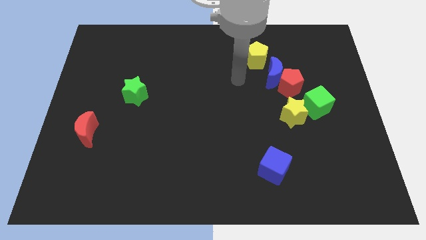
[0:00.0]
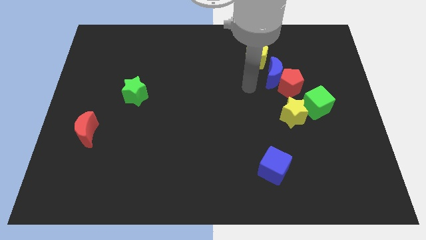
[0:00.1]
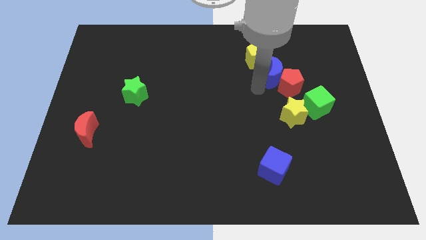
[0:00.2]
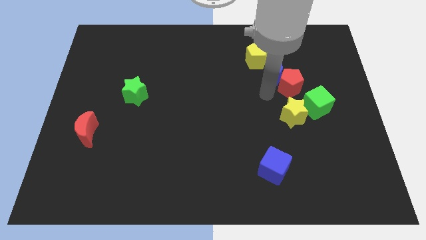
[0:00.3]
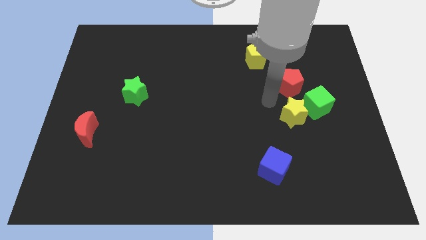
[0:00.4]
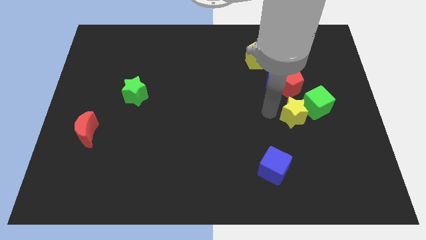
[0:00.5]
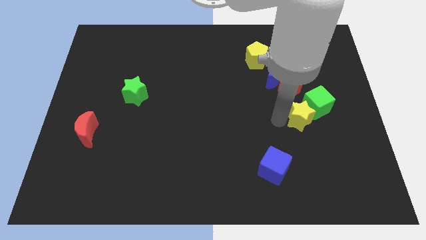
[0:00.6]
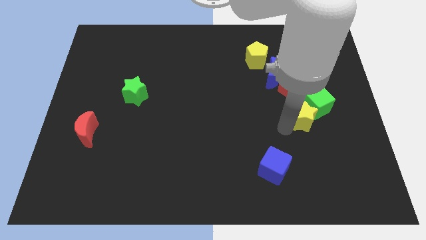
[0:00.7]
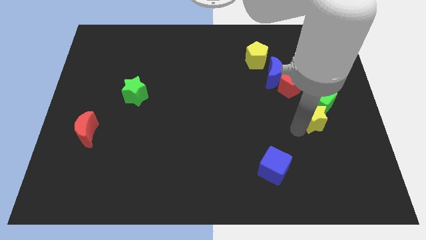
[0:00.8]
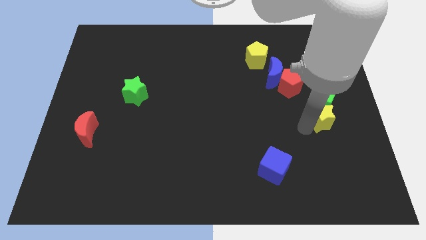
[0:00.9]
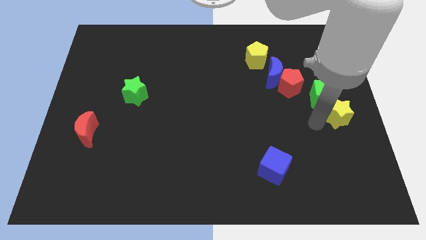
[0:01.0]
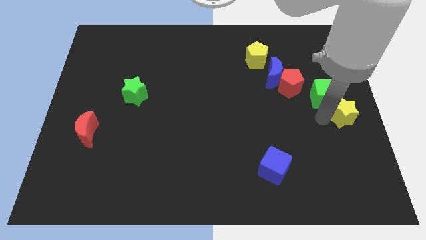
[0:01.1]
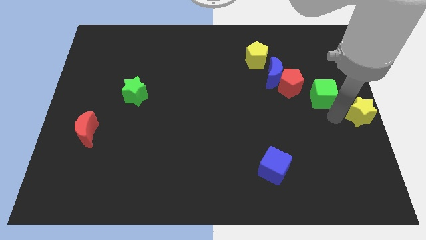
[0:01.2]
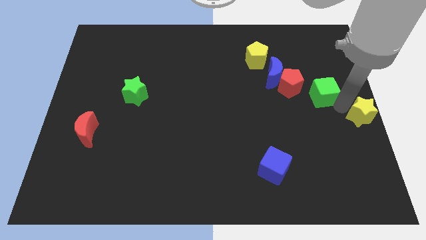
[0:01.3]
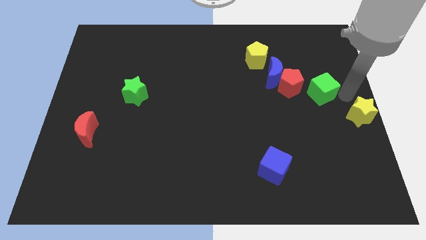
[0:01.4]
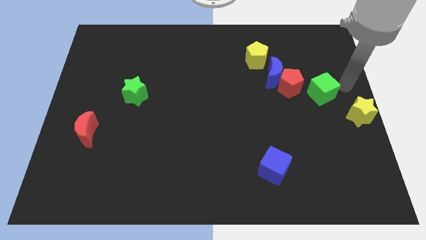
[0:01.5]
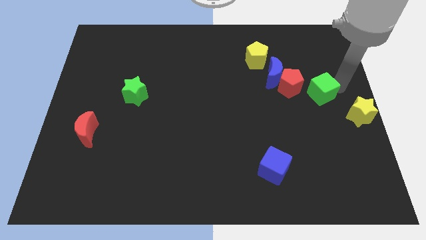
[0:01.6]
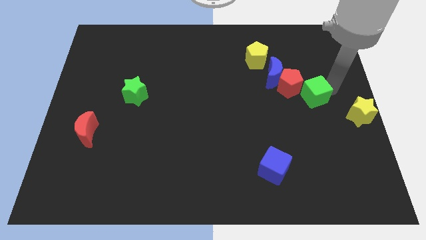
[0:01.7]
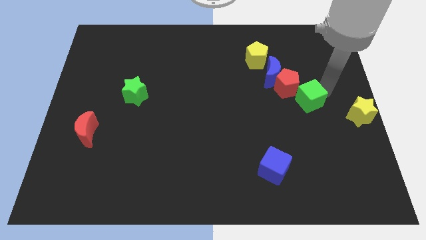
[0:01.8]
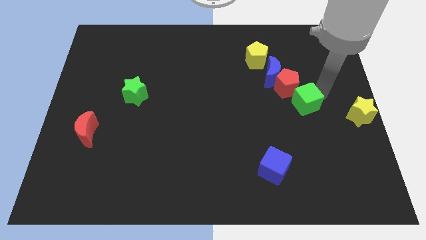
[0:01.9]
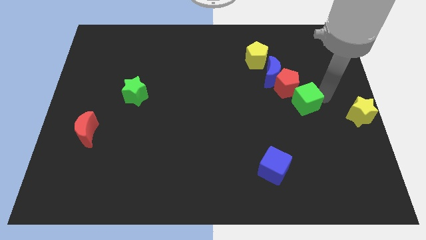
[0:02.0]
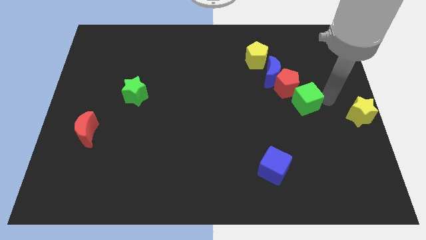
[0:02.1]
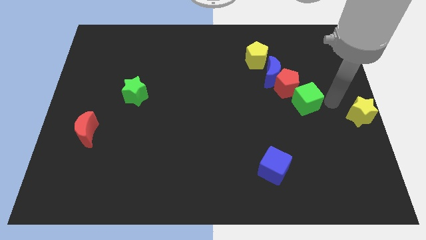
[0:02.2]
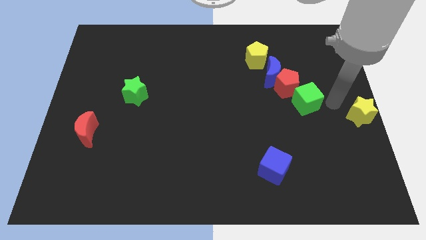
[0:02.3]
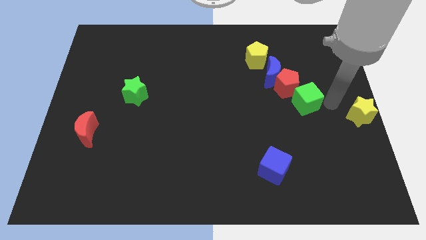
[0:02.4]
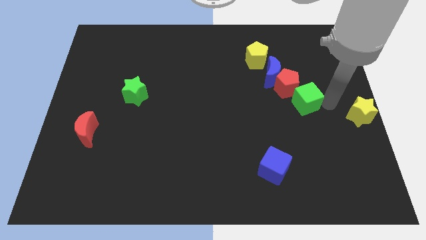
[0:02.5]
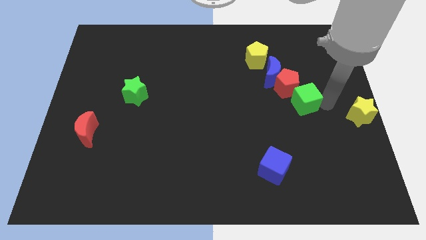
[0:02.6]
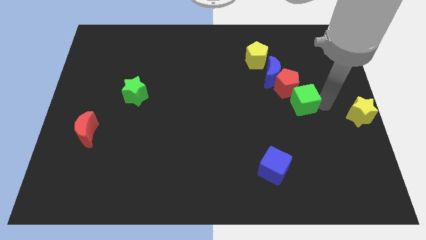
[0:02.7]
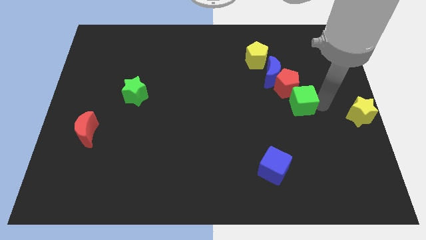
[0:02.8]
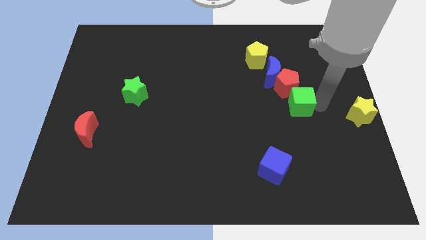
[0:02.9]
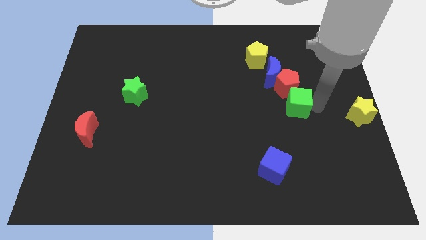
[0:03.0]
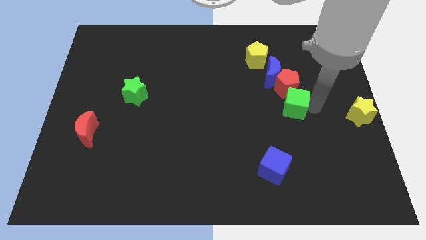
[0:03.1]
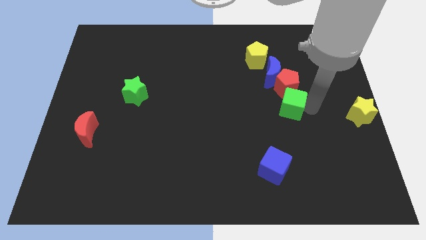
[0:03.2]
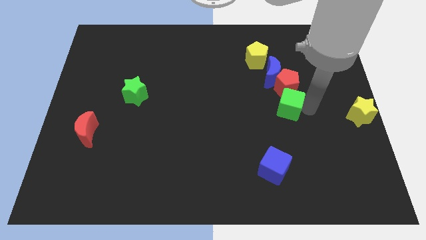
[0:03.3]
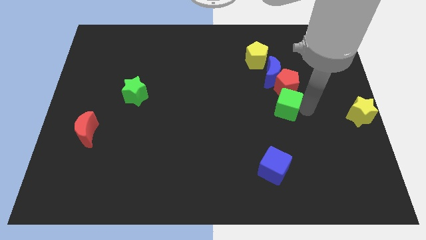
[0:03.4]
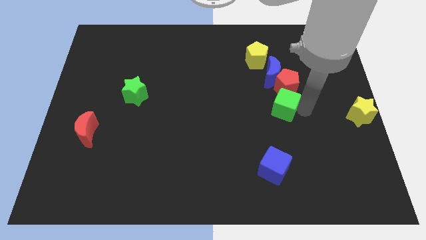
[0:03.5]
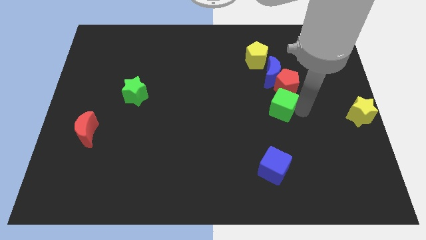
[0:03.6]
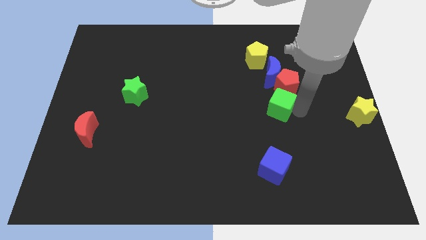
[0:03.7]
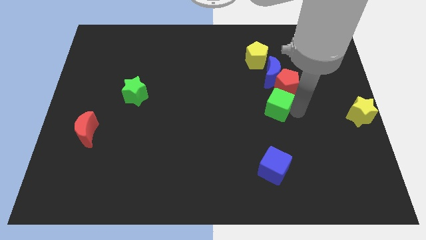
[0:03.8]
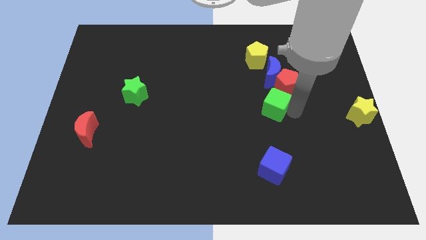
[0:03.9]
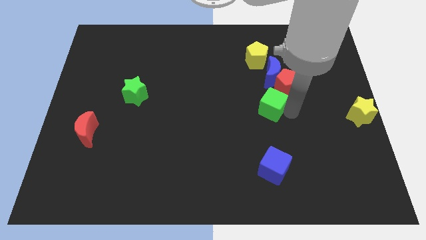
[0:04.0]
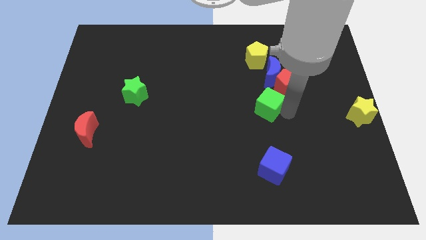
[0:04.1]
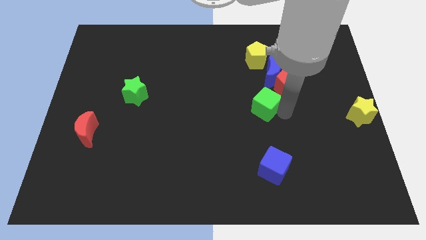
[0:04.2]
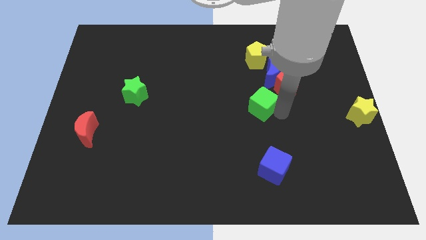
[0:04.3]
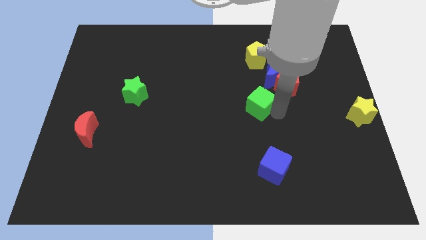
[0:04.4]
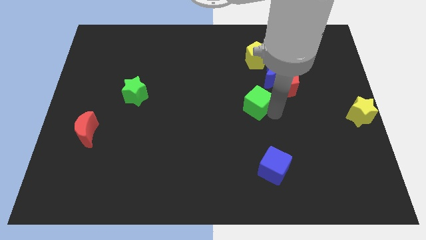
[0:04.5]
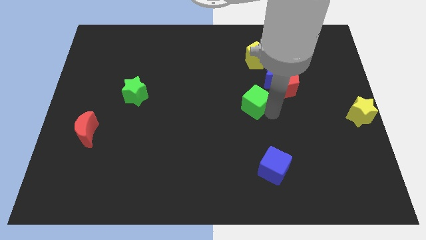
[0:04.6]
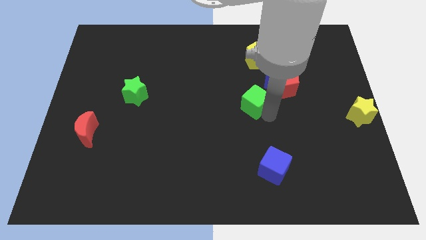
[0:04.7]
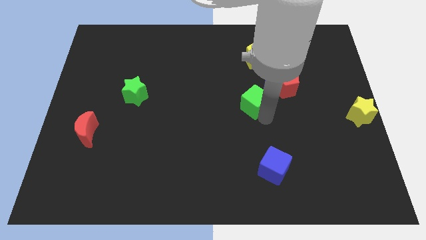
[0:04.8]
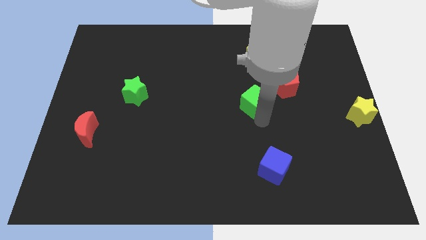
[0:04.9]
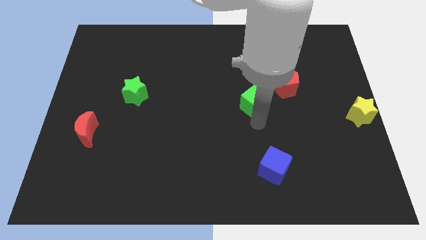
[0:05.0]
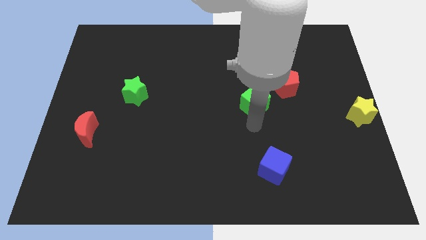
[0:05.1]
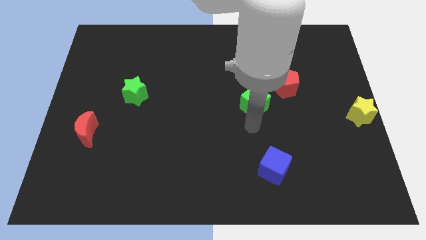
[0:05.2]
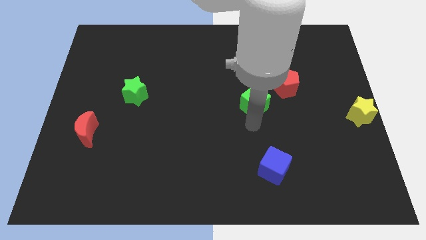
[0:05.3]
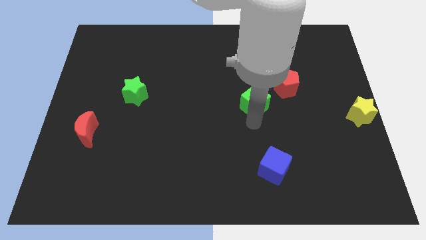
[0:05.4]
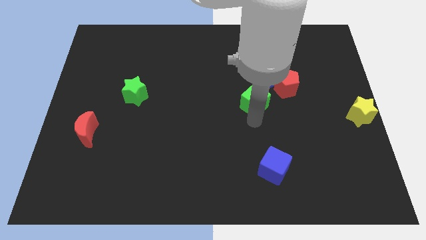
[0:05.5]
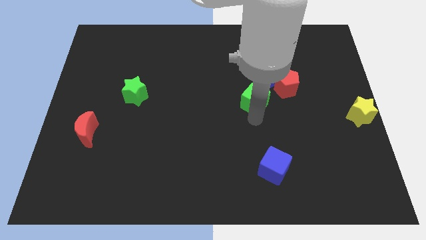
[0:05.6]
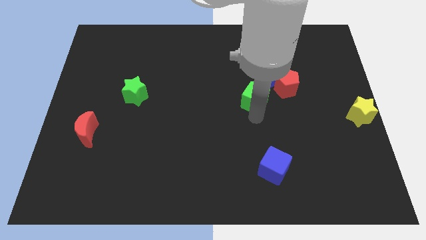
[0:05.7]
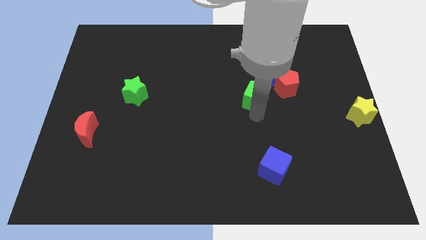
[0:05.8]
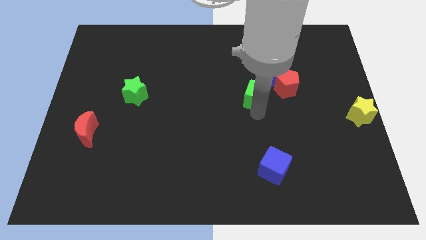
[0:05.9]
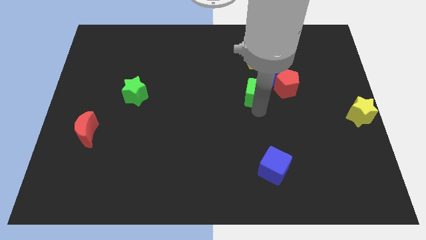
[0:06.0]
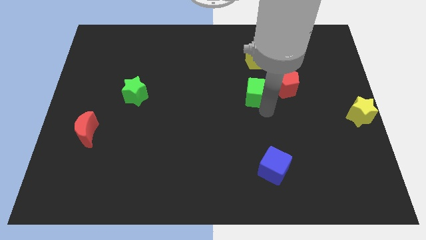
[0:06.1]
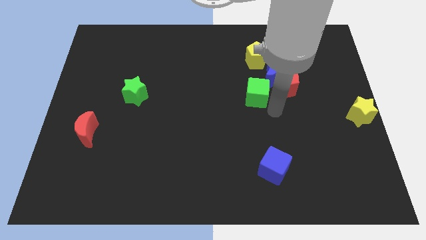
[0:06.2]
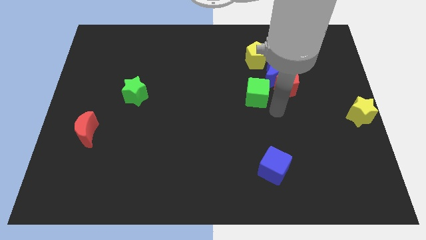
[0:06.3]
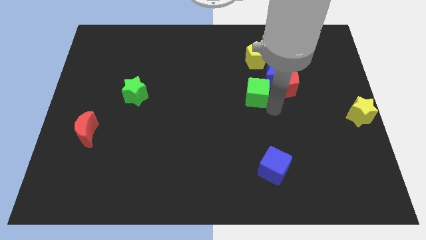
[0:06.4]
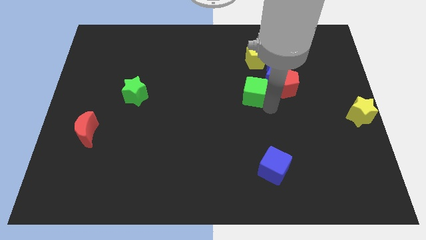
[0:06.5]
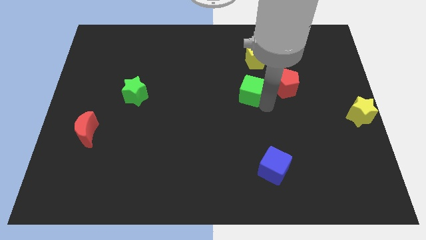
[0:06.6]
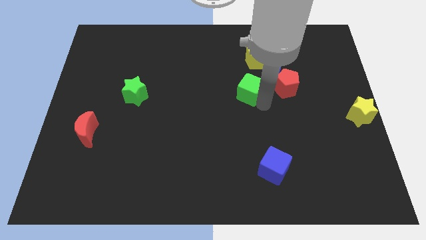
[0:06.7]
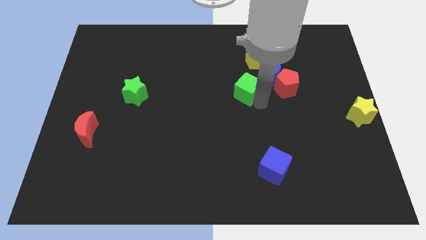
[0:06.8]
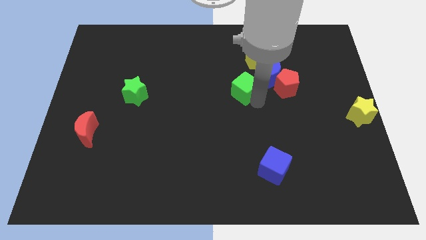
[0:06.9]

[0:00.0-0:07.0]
slide the green cube to the left side of the blue moon
